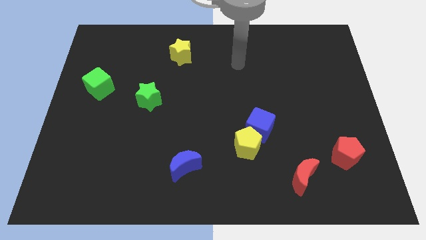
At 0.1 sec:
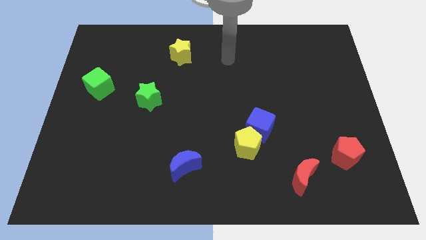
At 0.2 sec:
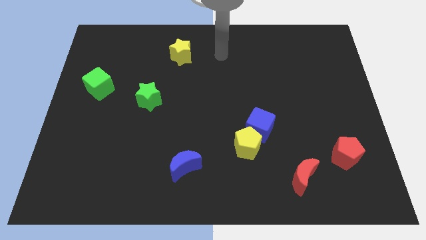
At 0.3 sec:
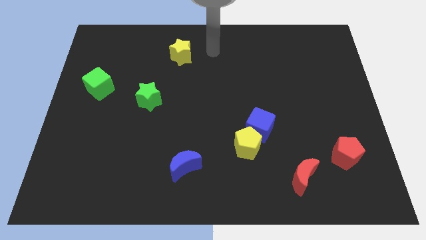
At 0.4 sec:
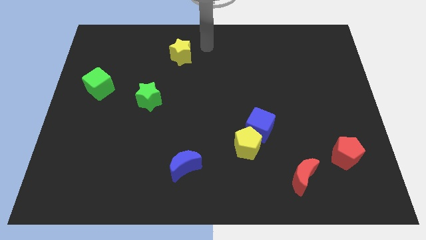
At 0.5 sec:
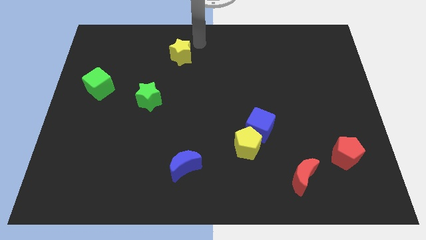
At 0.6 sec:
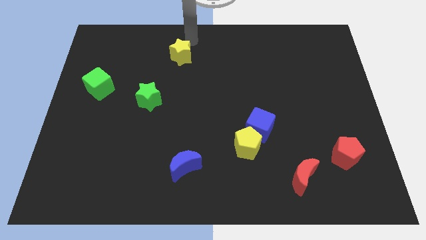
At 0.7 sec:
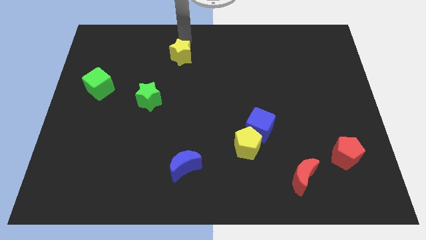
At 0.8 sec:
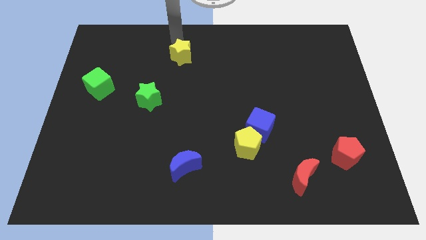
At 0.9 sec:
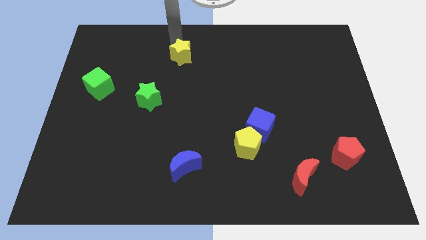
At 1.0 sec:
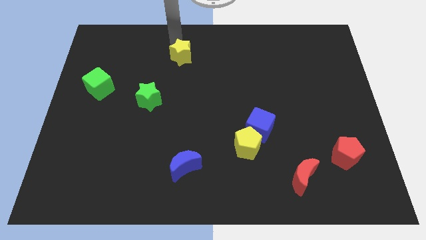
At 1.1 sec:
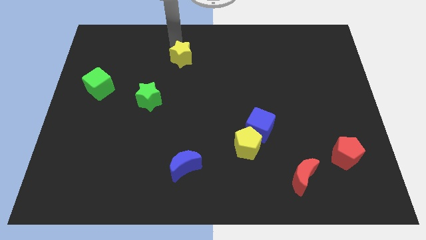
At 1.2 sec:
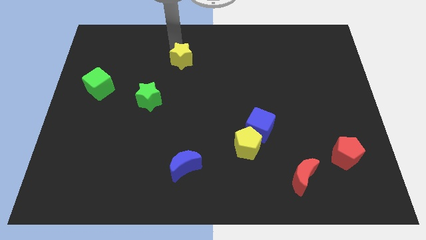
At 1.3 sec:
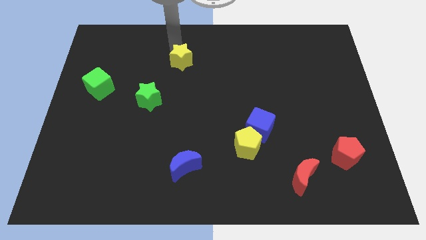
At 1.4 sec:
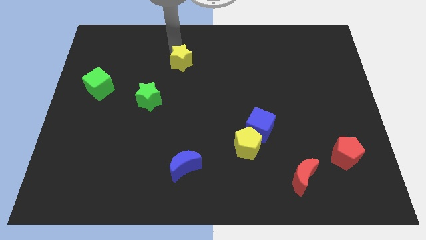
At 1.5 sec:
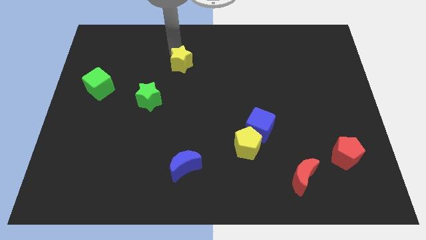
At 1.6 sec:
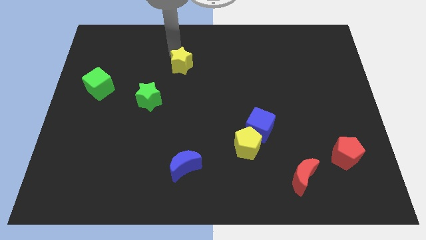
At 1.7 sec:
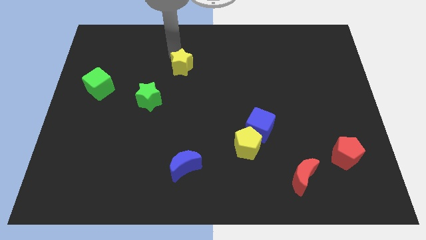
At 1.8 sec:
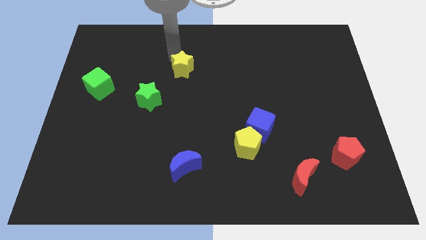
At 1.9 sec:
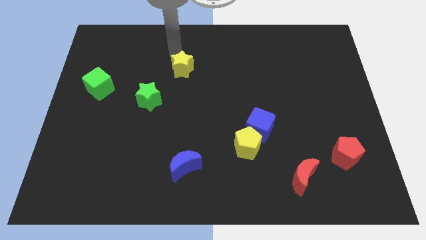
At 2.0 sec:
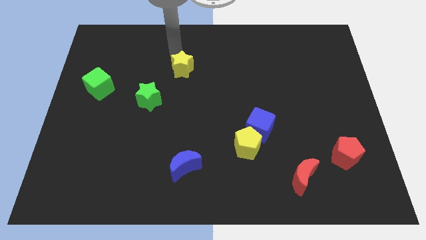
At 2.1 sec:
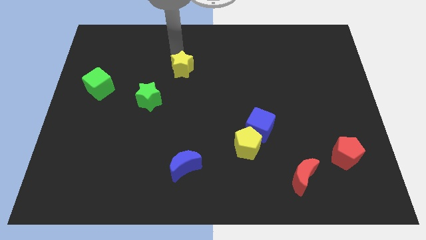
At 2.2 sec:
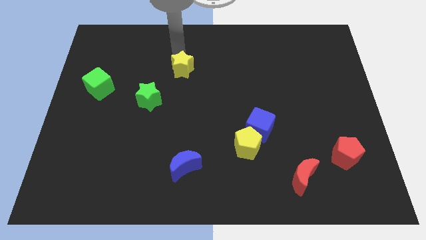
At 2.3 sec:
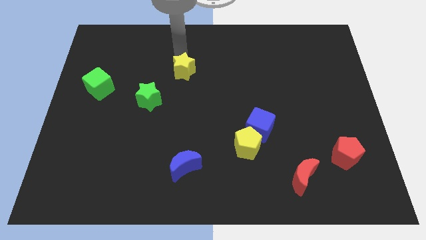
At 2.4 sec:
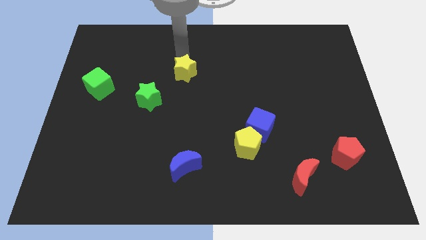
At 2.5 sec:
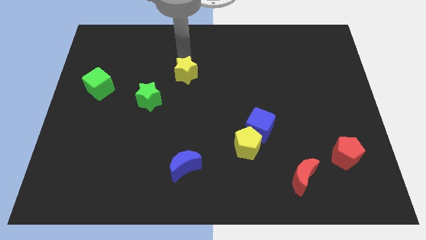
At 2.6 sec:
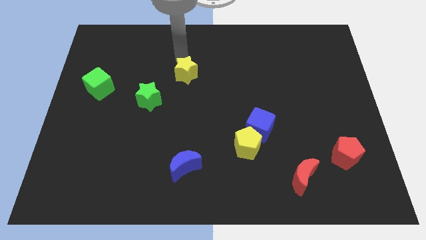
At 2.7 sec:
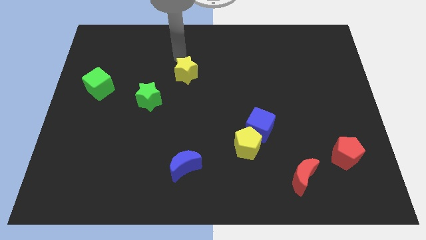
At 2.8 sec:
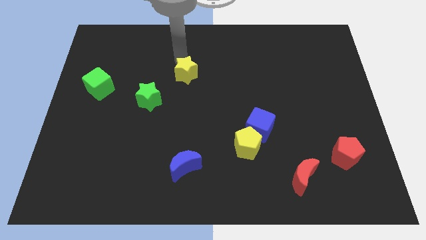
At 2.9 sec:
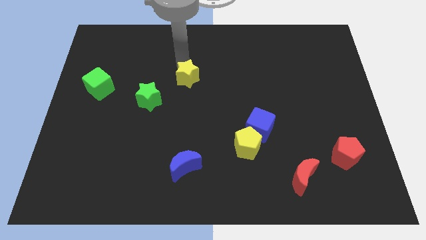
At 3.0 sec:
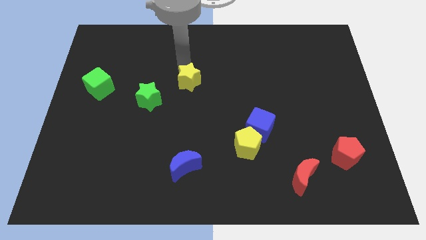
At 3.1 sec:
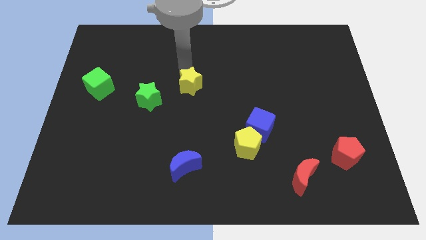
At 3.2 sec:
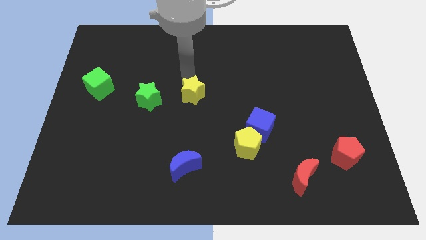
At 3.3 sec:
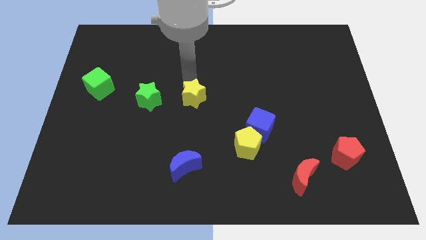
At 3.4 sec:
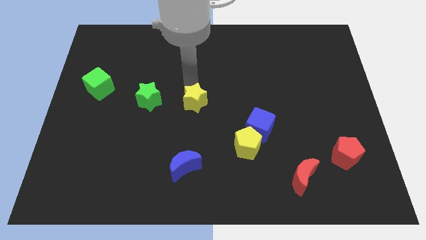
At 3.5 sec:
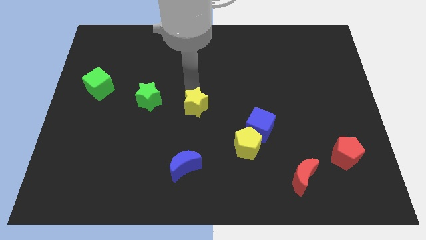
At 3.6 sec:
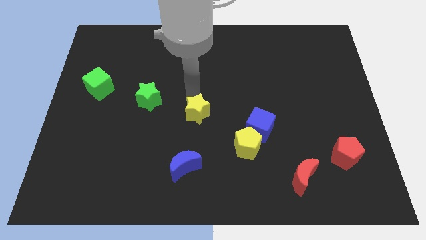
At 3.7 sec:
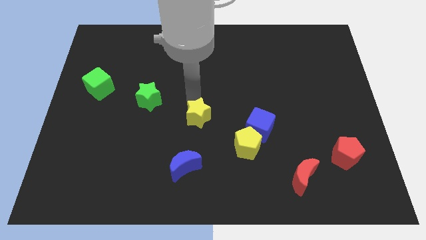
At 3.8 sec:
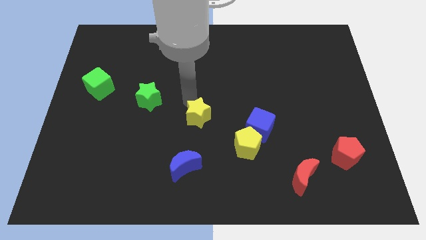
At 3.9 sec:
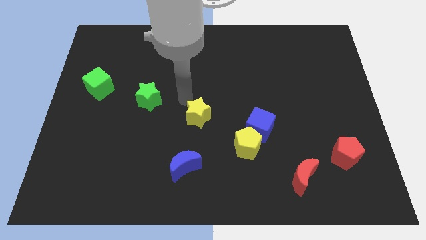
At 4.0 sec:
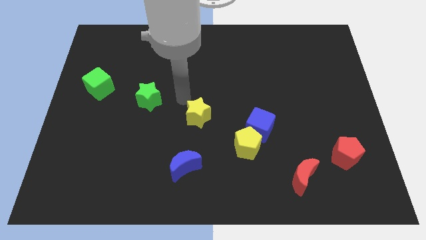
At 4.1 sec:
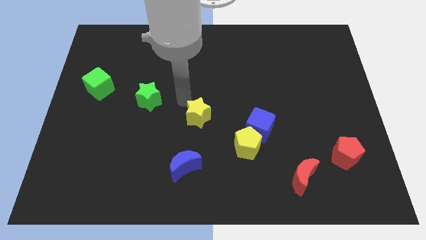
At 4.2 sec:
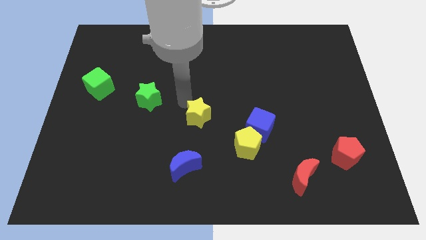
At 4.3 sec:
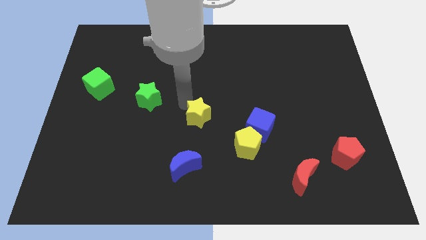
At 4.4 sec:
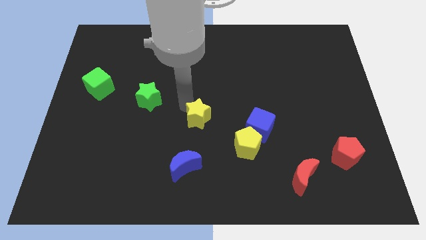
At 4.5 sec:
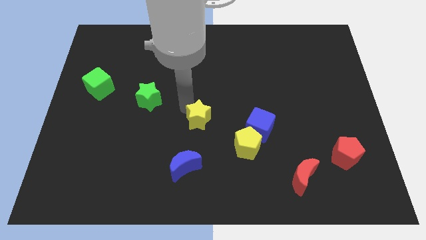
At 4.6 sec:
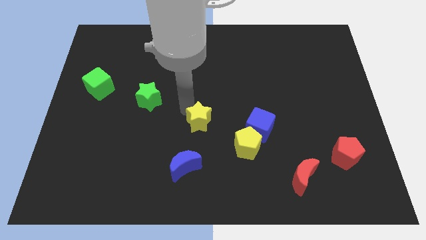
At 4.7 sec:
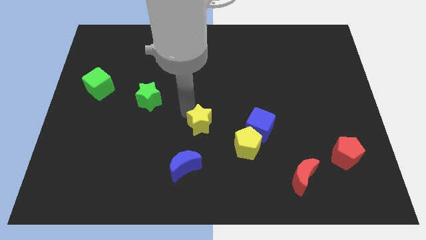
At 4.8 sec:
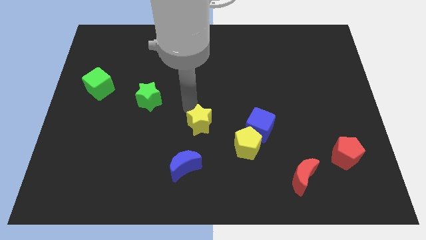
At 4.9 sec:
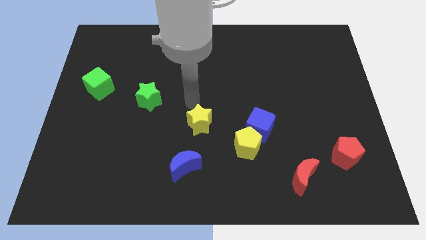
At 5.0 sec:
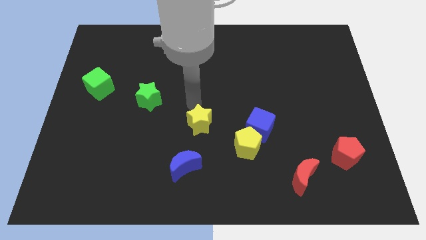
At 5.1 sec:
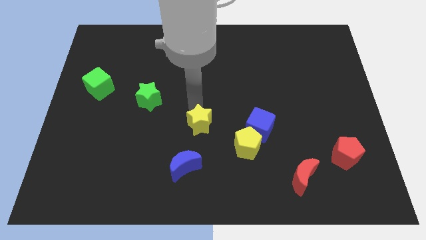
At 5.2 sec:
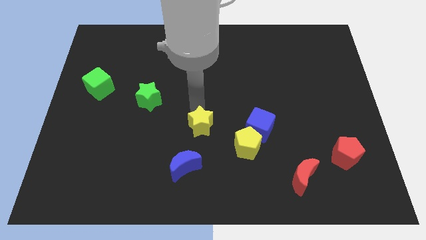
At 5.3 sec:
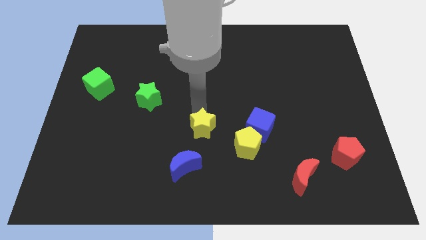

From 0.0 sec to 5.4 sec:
push the yellow star to the top right side of the blue moon

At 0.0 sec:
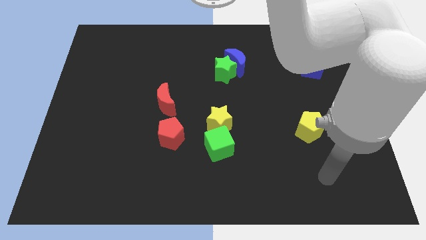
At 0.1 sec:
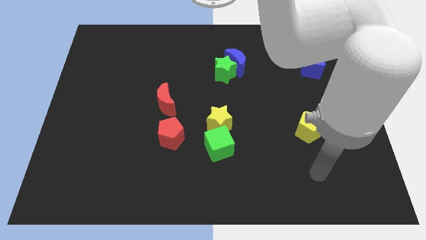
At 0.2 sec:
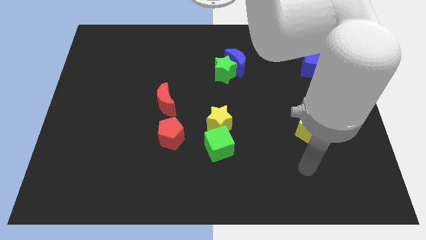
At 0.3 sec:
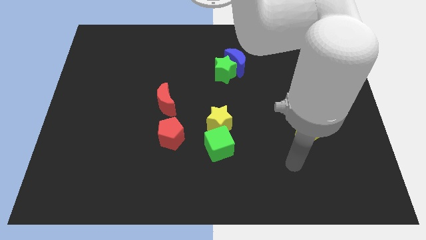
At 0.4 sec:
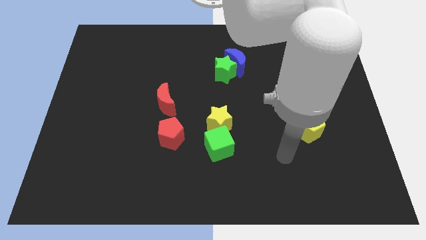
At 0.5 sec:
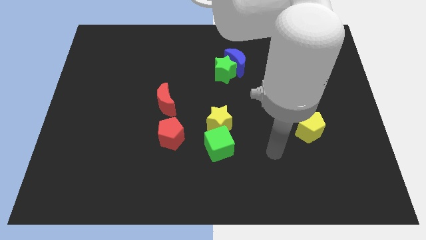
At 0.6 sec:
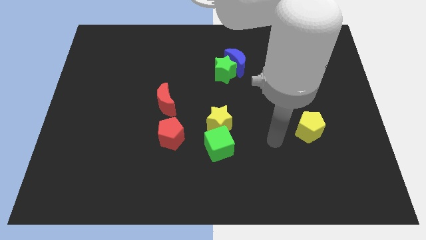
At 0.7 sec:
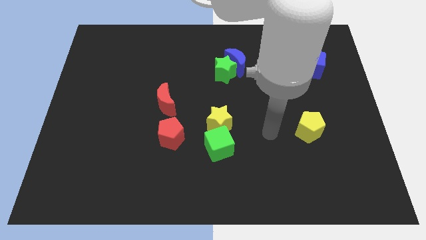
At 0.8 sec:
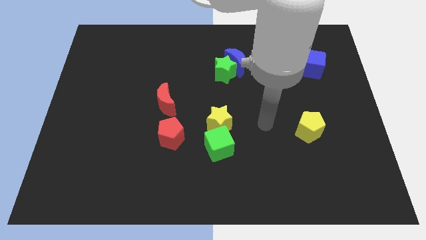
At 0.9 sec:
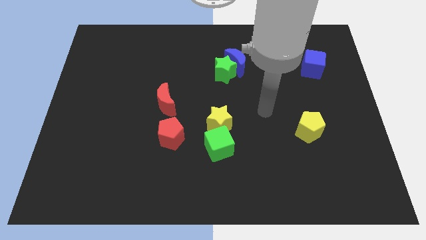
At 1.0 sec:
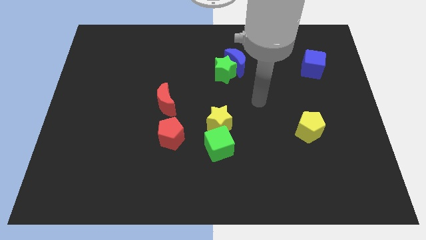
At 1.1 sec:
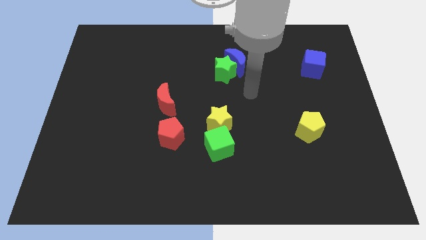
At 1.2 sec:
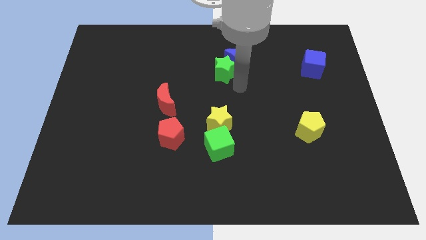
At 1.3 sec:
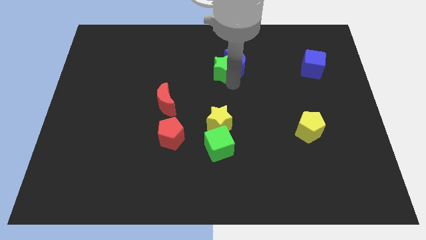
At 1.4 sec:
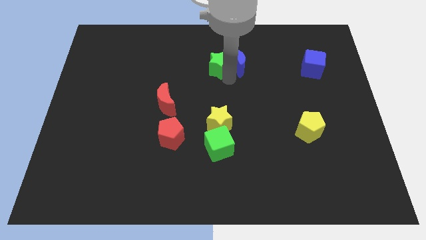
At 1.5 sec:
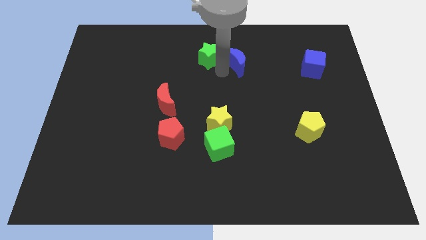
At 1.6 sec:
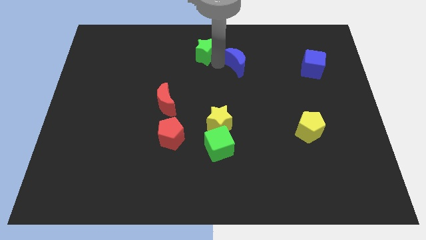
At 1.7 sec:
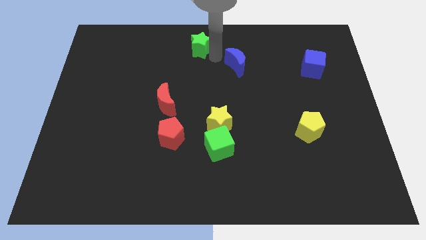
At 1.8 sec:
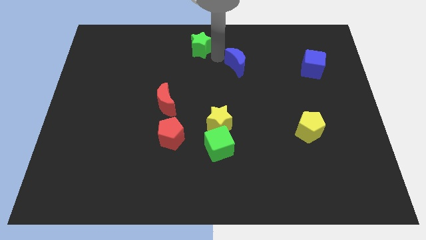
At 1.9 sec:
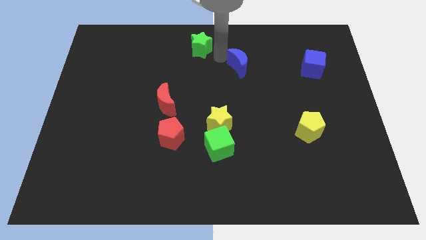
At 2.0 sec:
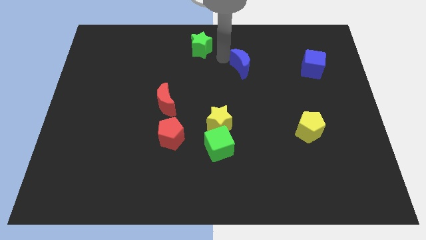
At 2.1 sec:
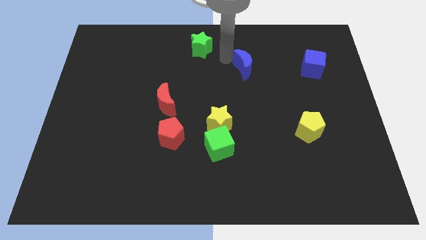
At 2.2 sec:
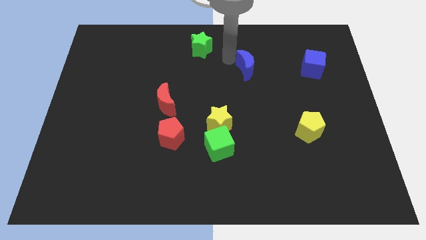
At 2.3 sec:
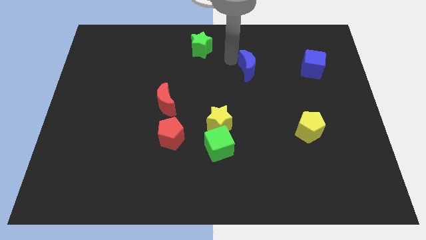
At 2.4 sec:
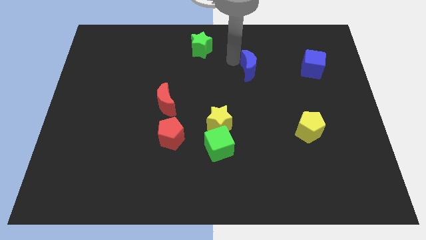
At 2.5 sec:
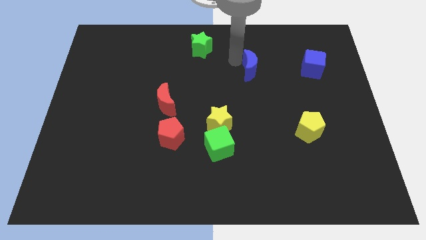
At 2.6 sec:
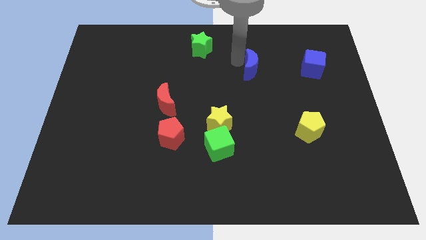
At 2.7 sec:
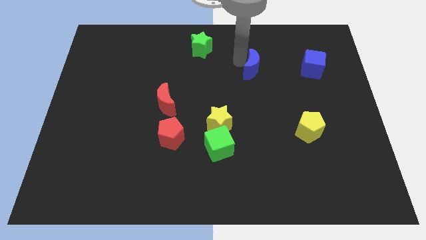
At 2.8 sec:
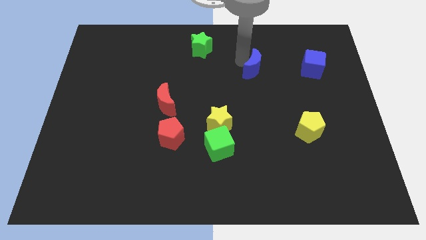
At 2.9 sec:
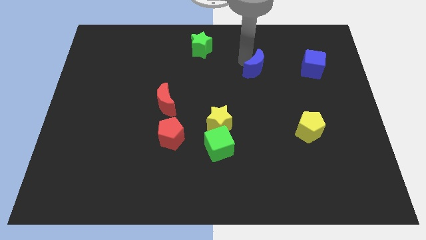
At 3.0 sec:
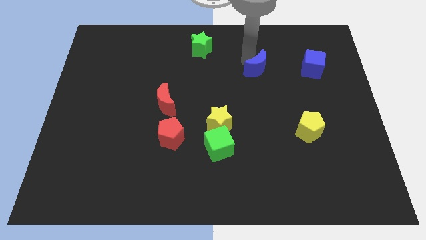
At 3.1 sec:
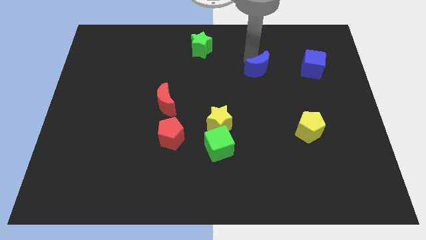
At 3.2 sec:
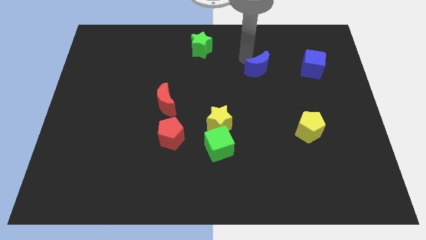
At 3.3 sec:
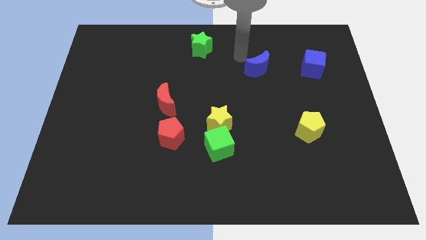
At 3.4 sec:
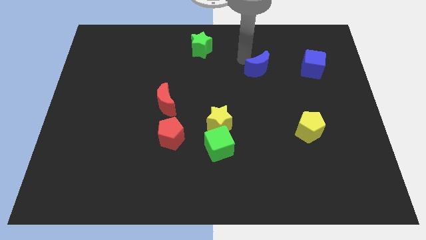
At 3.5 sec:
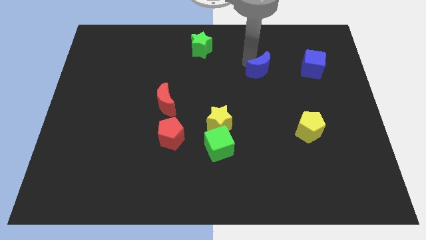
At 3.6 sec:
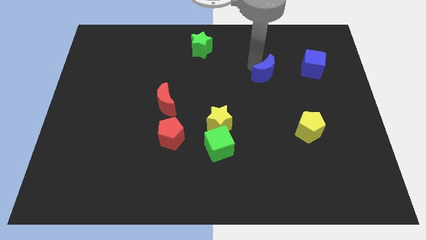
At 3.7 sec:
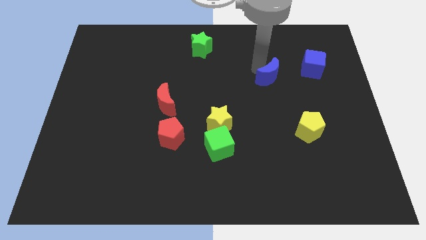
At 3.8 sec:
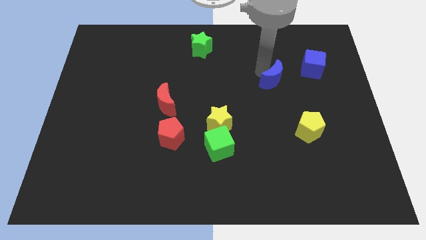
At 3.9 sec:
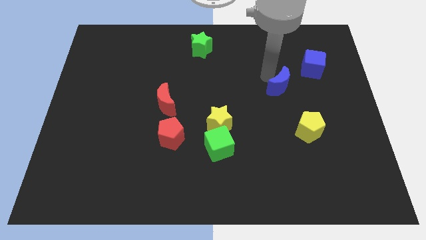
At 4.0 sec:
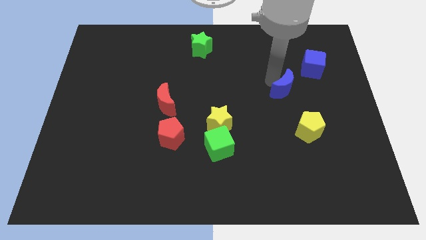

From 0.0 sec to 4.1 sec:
slide the blue moon to the top of the yellow pentagon
